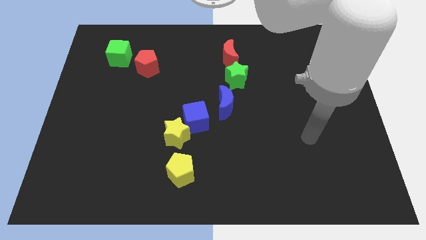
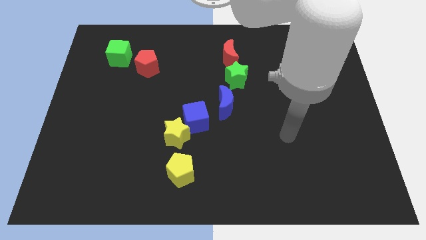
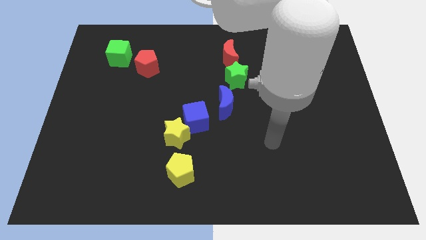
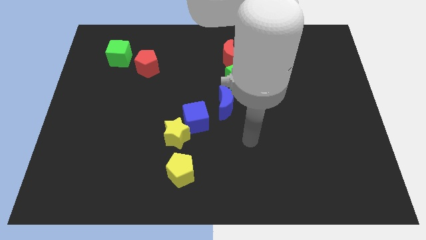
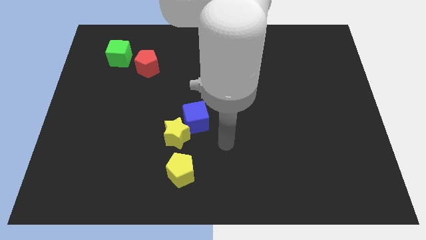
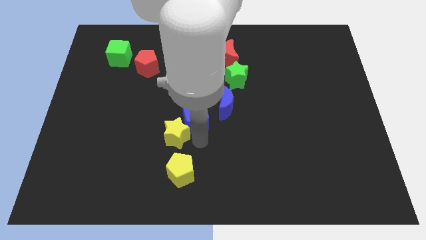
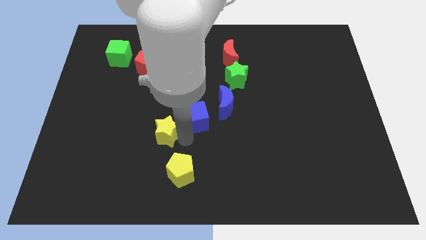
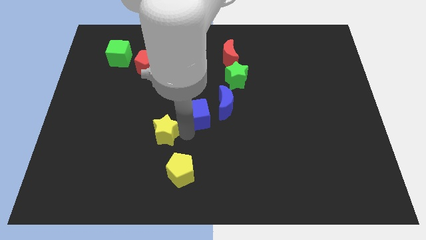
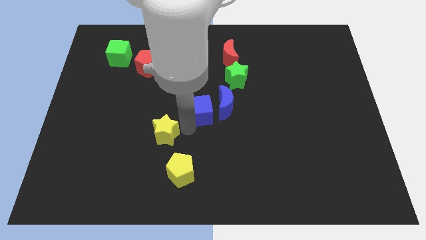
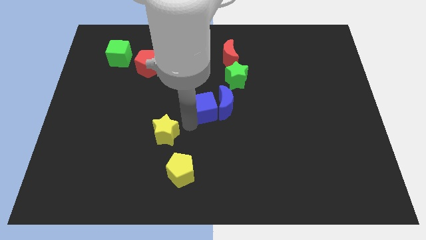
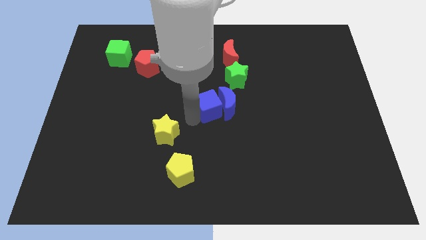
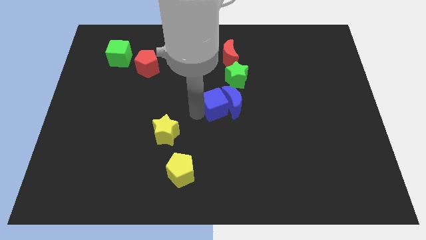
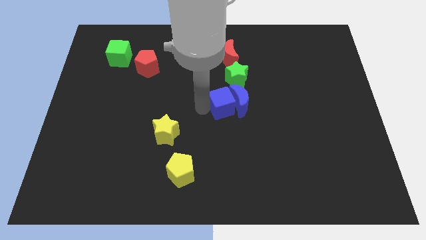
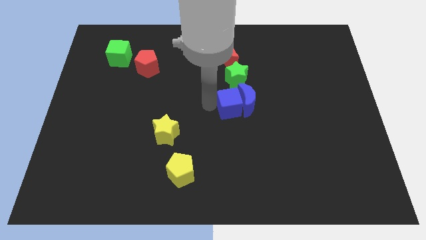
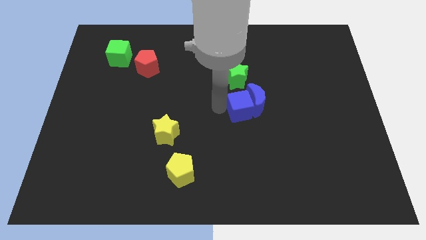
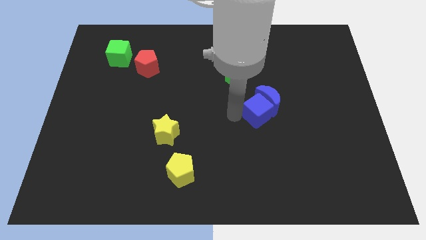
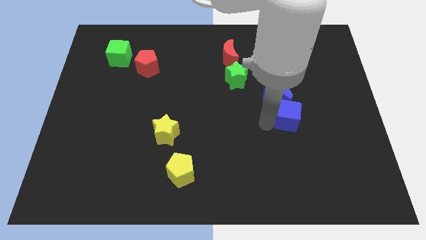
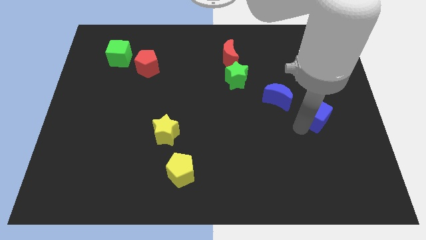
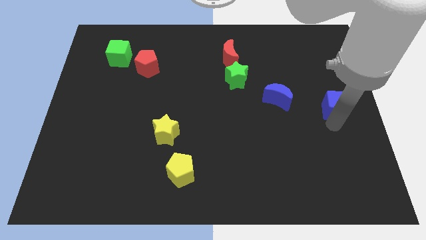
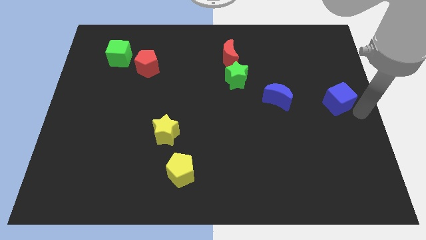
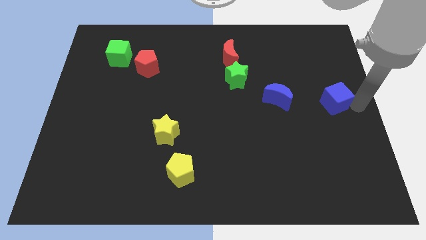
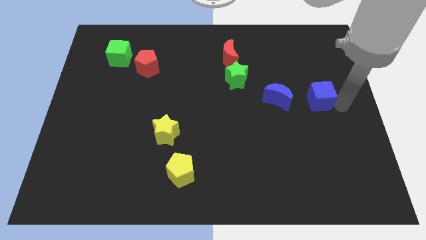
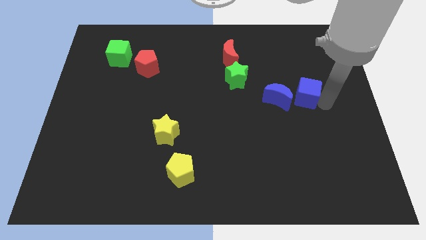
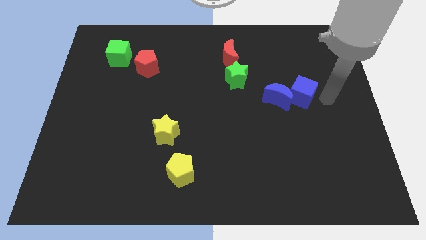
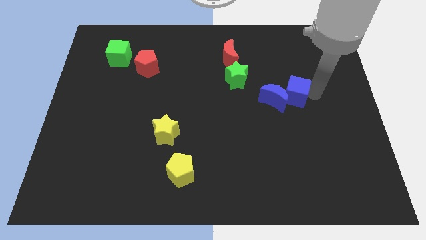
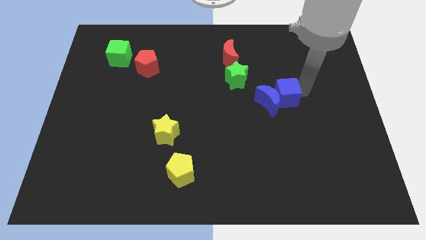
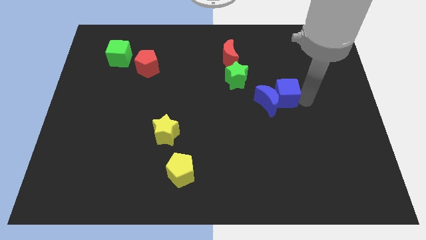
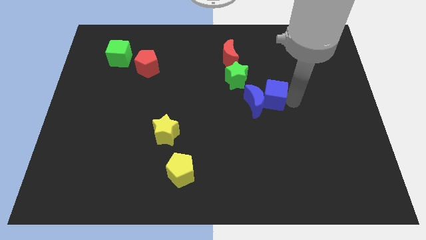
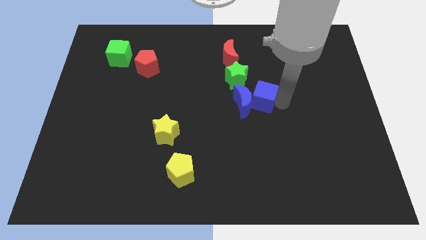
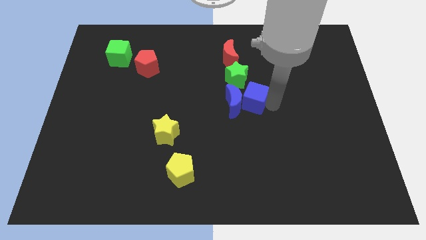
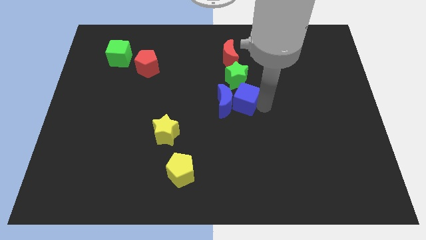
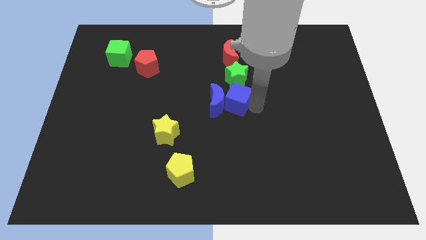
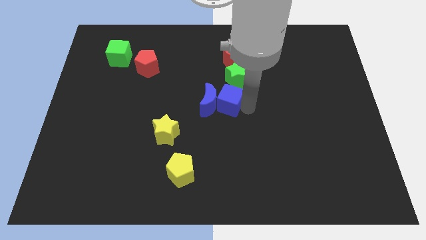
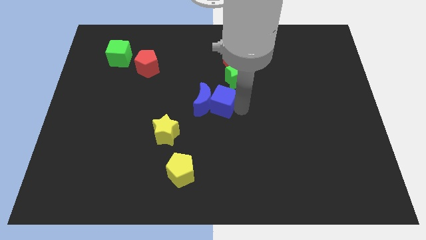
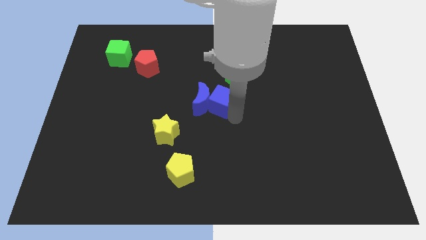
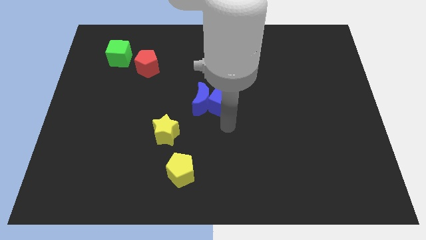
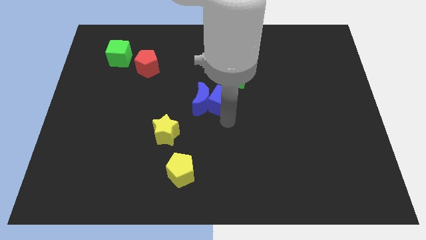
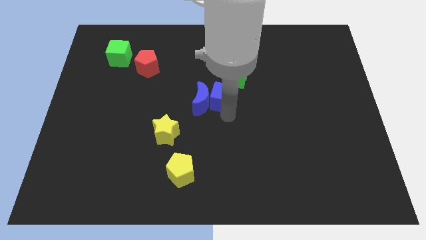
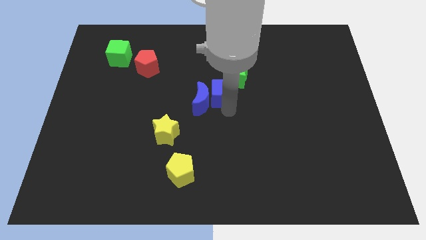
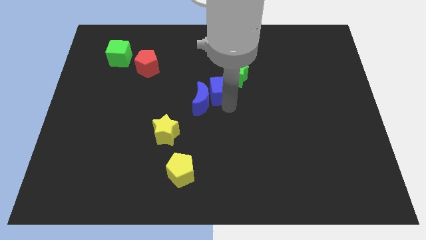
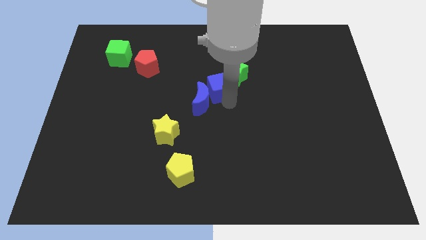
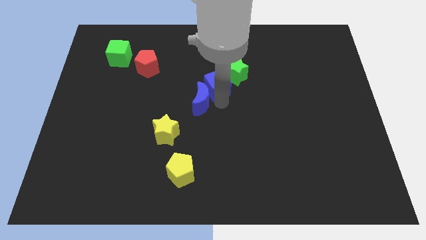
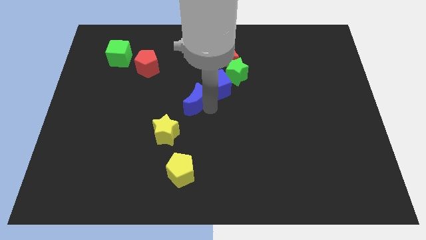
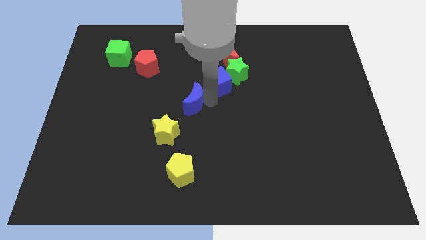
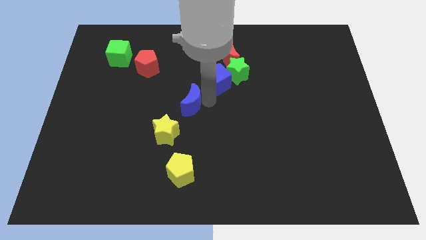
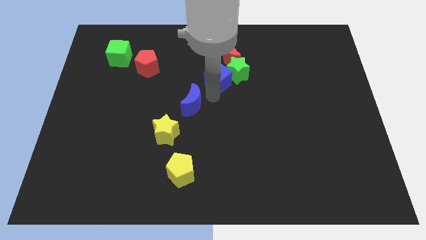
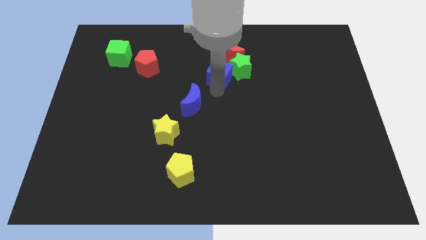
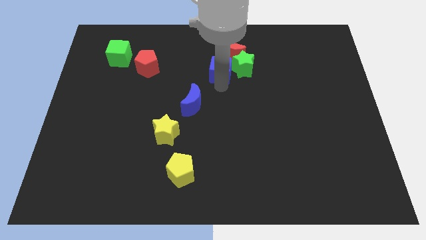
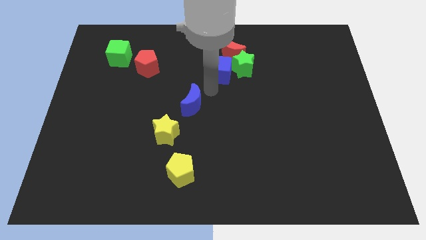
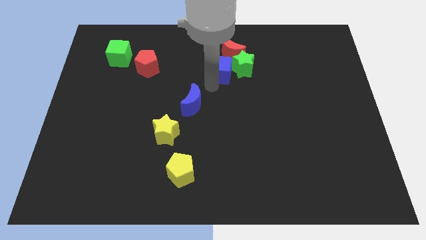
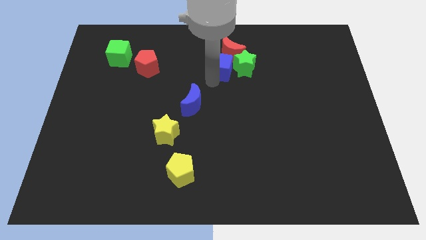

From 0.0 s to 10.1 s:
slide the blue cube to the red moon

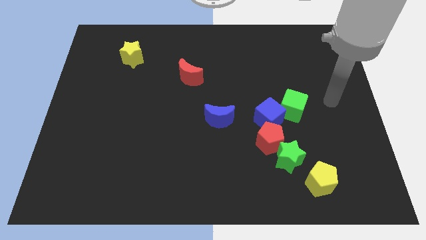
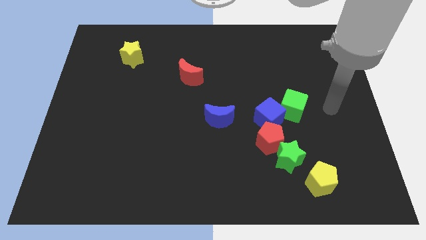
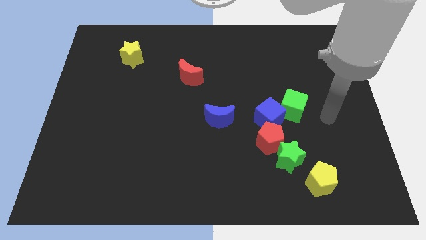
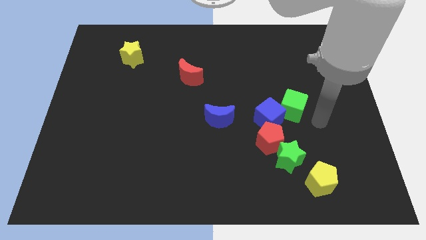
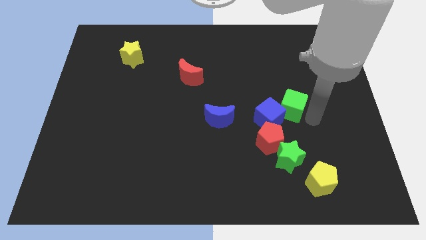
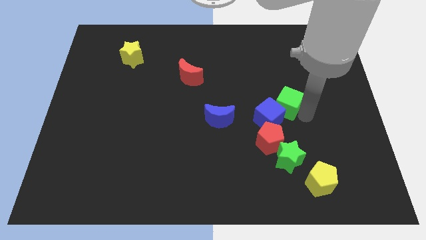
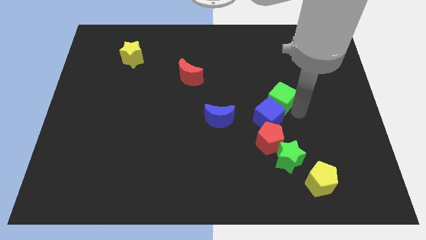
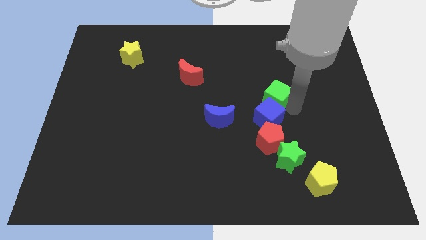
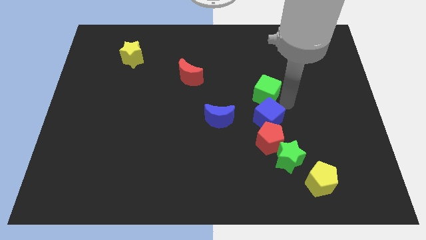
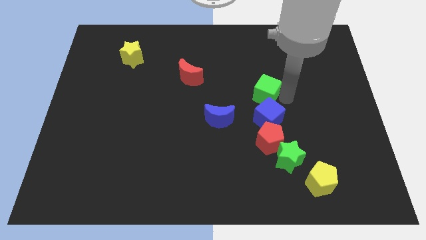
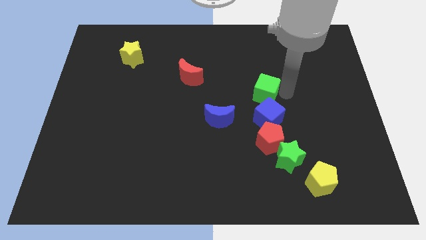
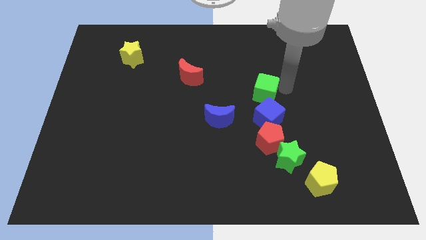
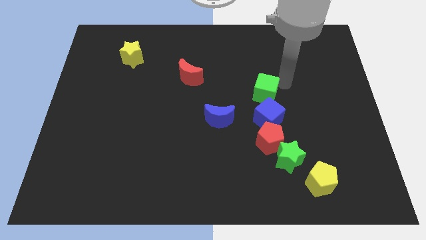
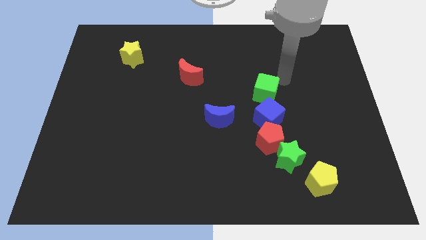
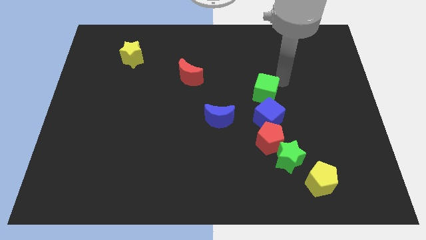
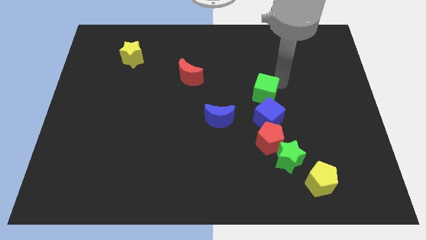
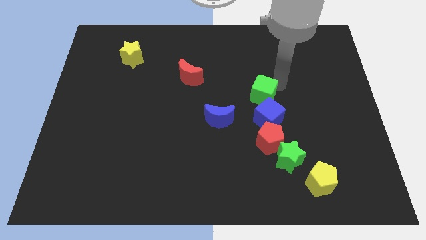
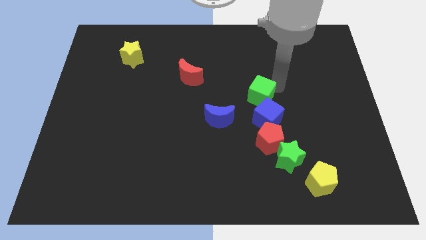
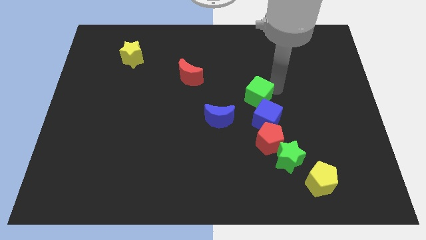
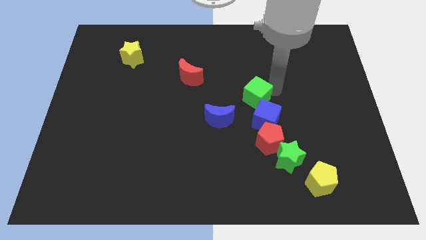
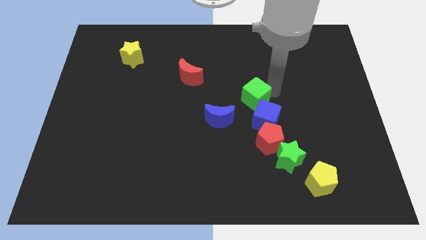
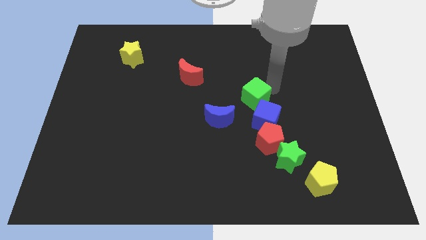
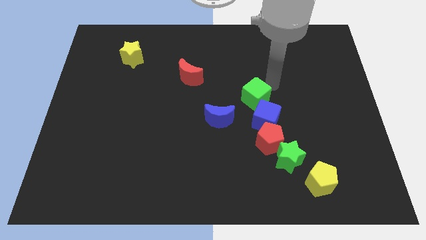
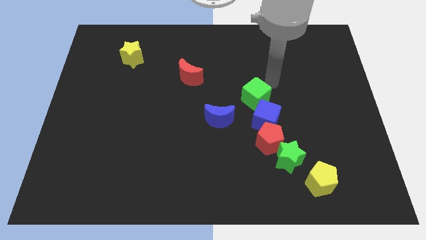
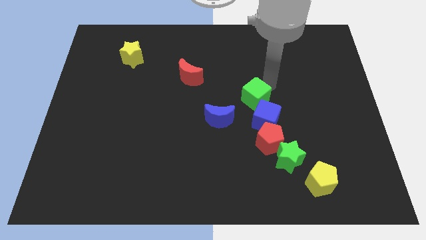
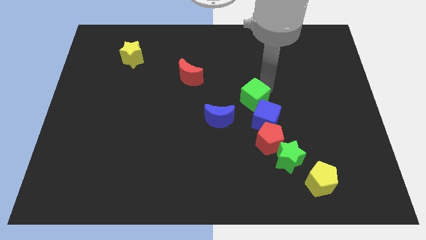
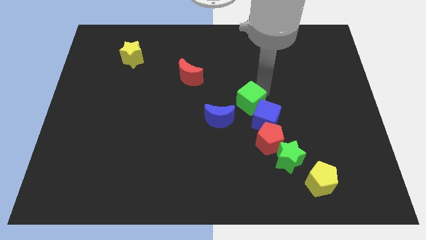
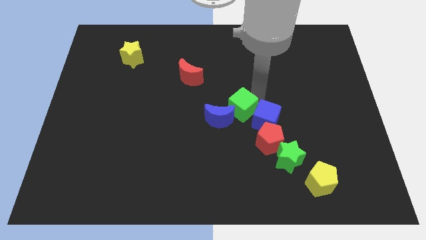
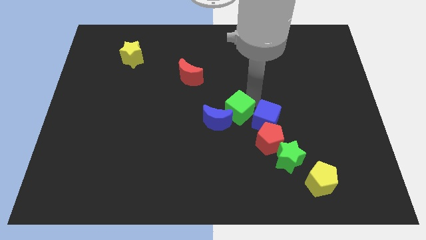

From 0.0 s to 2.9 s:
move the green cube next to the blue moon
